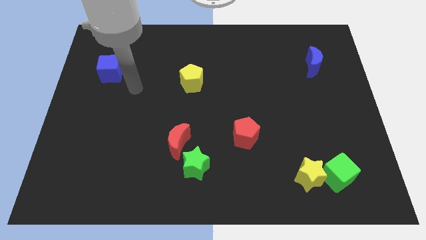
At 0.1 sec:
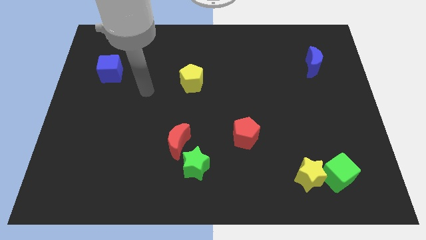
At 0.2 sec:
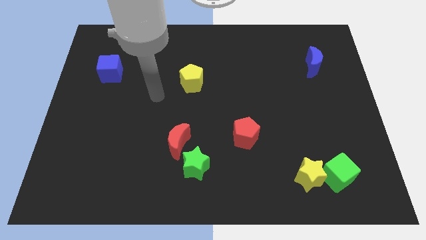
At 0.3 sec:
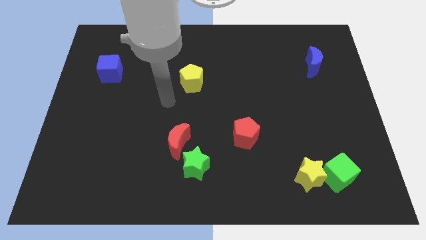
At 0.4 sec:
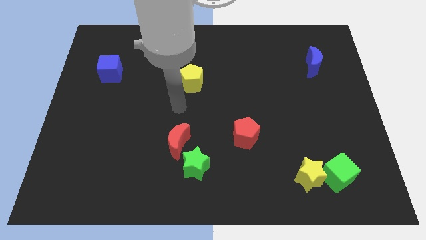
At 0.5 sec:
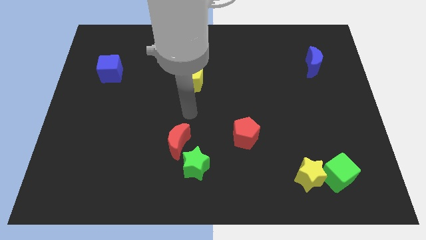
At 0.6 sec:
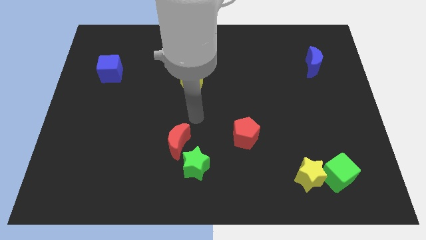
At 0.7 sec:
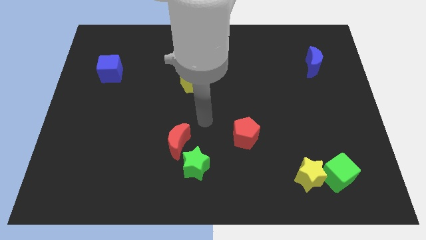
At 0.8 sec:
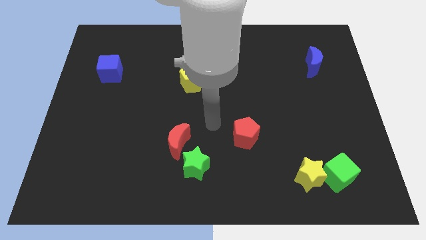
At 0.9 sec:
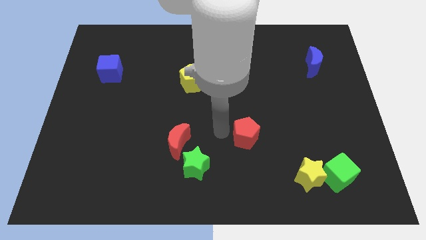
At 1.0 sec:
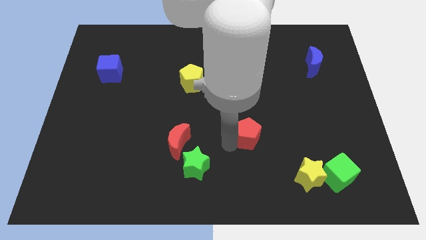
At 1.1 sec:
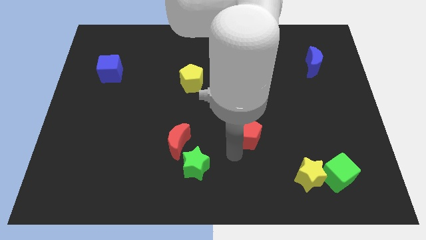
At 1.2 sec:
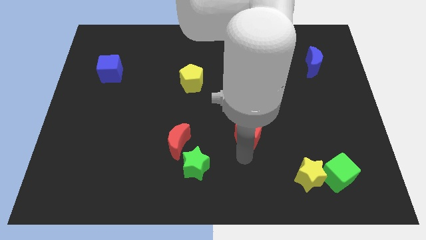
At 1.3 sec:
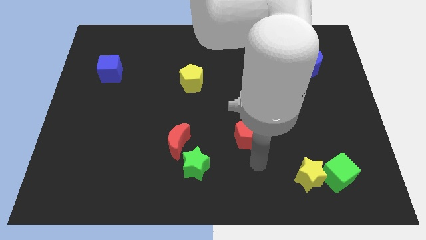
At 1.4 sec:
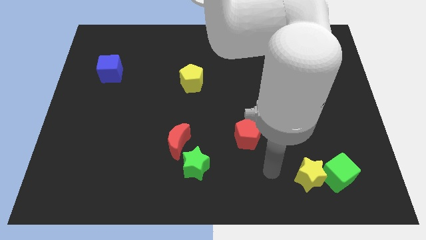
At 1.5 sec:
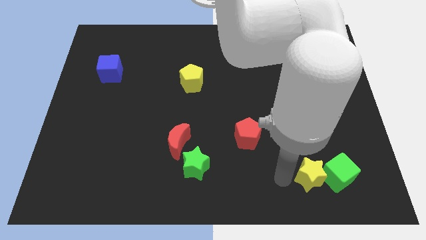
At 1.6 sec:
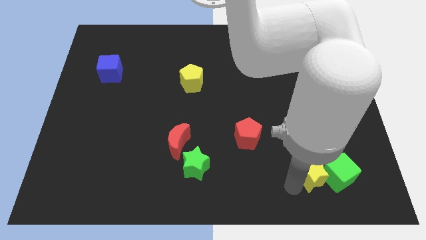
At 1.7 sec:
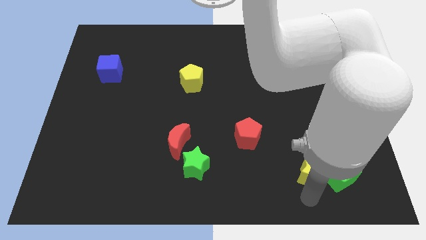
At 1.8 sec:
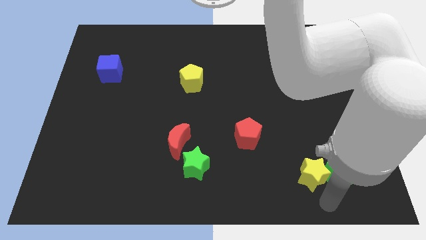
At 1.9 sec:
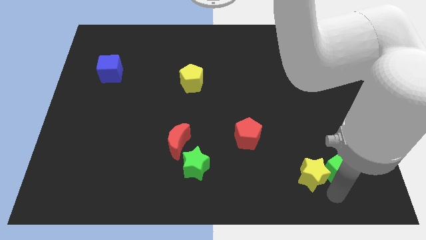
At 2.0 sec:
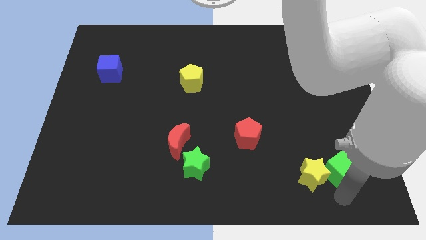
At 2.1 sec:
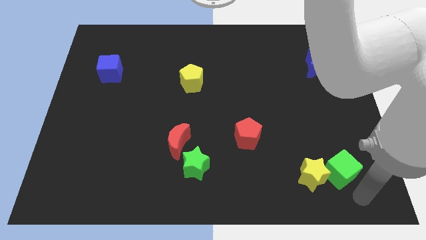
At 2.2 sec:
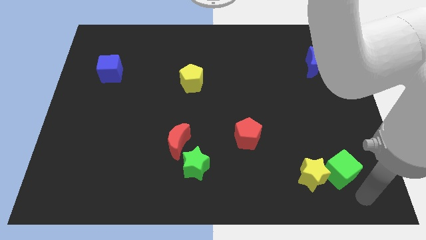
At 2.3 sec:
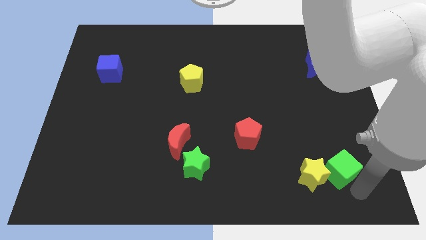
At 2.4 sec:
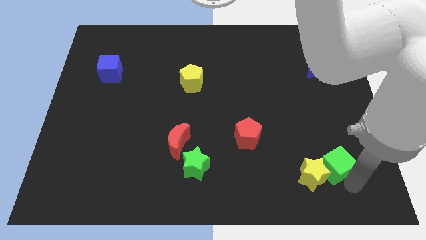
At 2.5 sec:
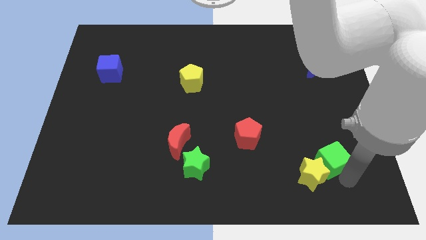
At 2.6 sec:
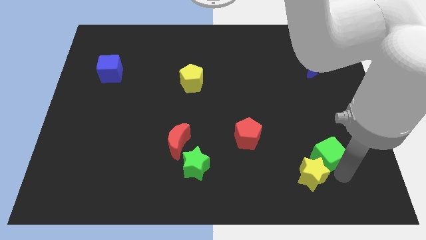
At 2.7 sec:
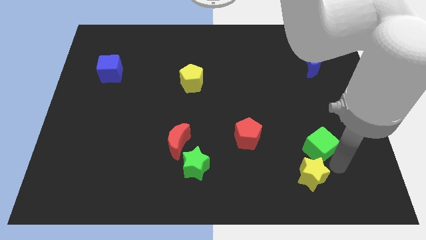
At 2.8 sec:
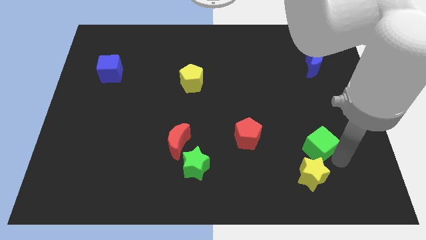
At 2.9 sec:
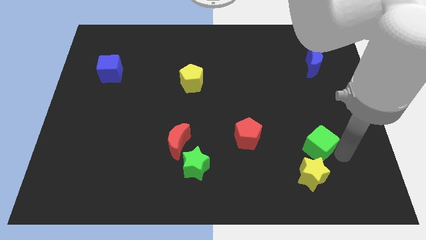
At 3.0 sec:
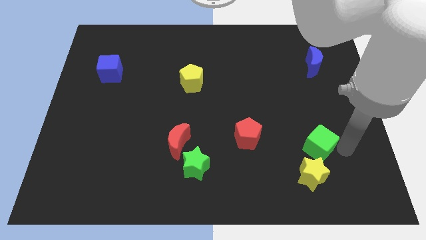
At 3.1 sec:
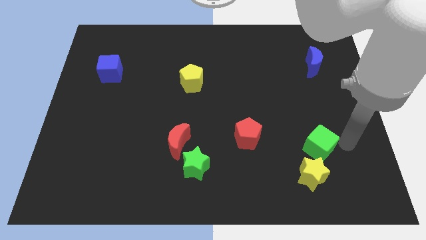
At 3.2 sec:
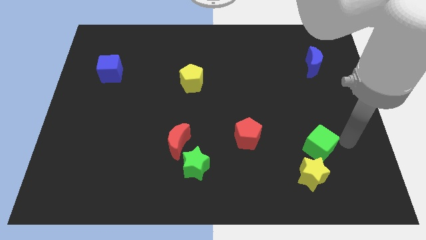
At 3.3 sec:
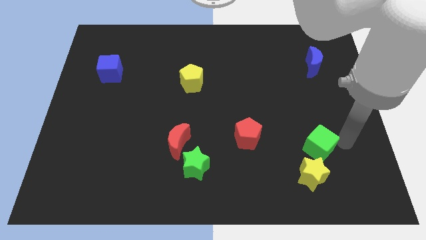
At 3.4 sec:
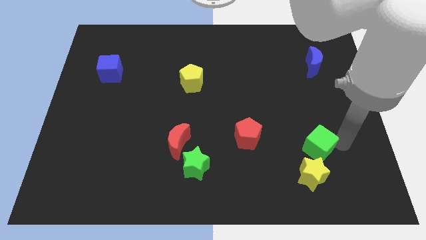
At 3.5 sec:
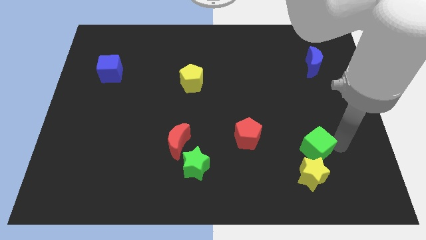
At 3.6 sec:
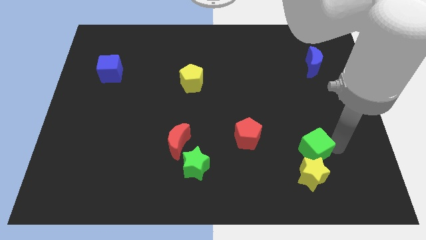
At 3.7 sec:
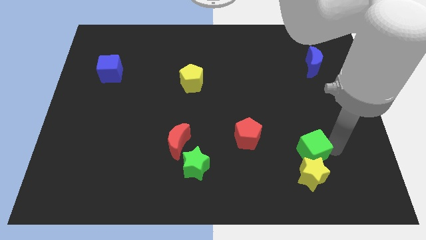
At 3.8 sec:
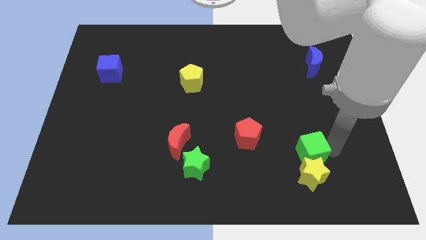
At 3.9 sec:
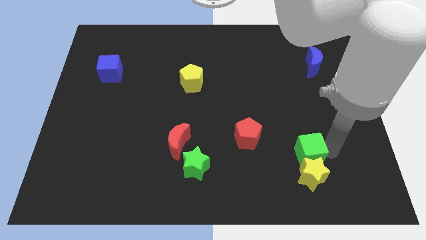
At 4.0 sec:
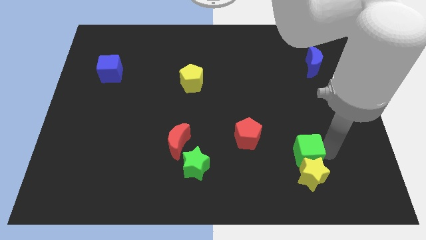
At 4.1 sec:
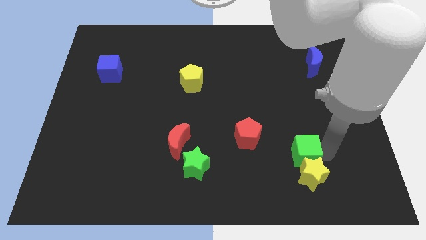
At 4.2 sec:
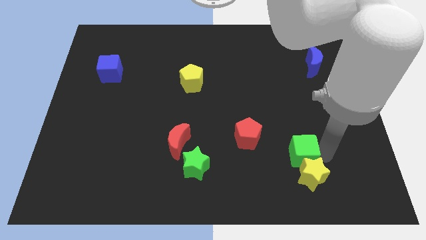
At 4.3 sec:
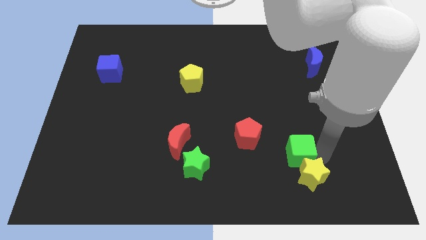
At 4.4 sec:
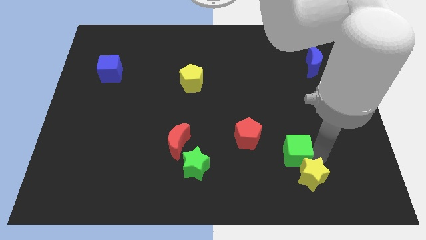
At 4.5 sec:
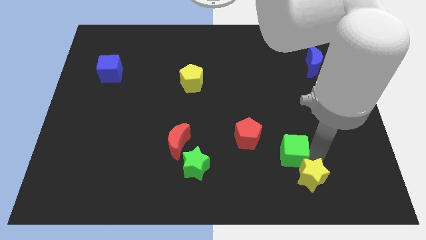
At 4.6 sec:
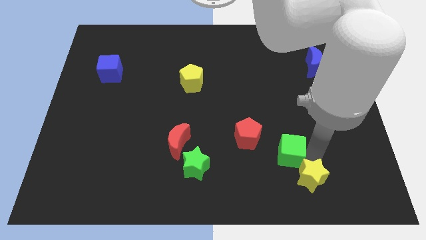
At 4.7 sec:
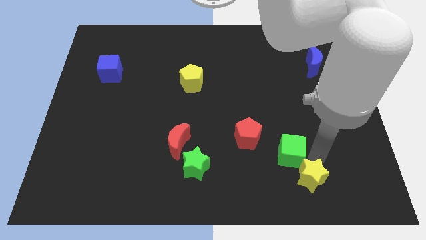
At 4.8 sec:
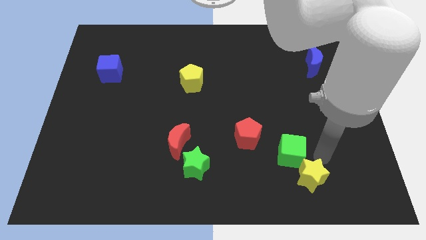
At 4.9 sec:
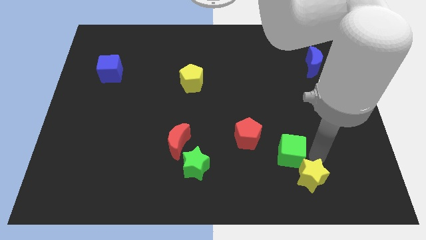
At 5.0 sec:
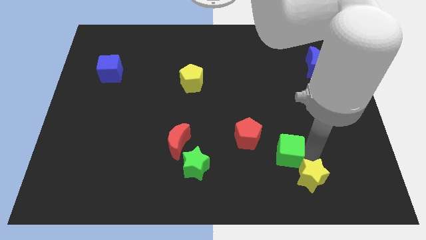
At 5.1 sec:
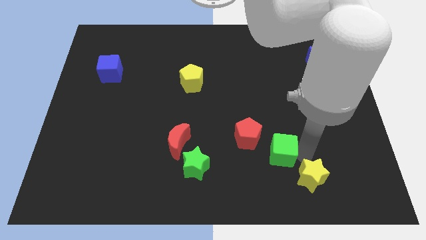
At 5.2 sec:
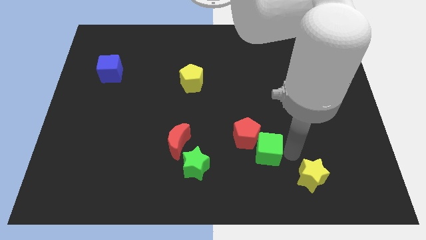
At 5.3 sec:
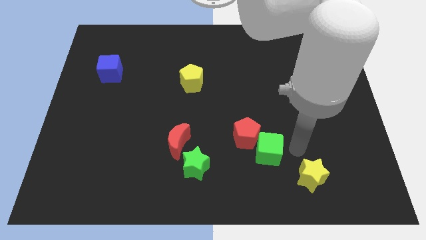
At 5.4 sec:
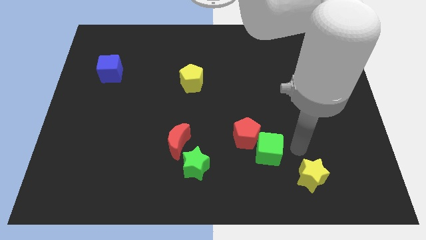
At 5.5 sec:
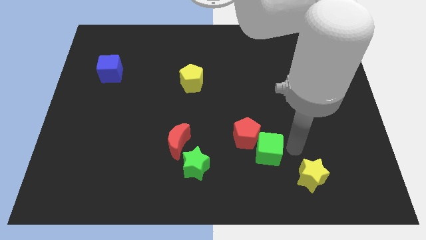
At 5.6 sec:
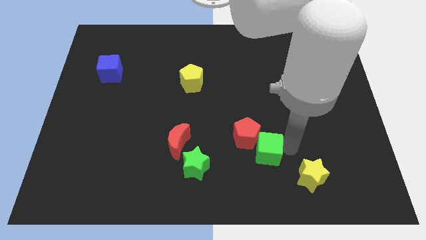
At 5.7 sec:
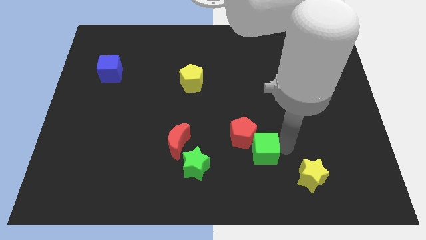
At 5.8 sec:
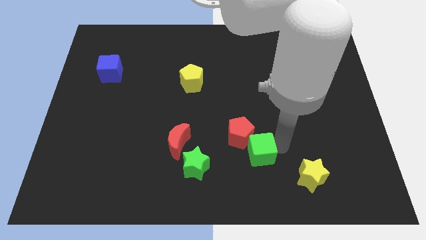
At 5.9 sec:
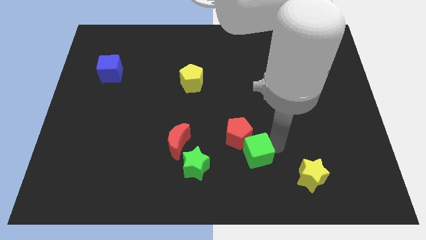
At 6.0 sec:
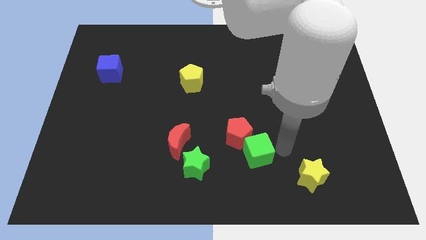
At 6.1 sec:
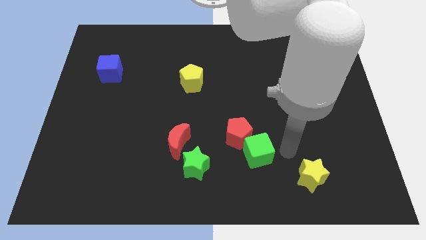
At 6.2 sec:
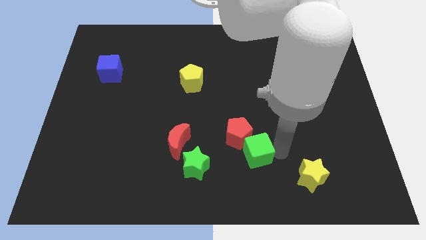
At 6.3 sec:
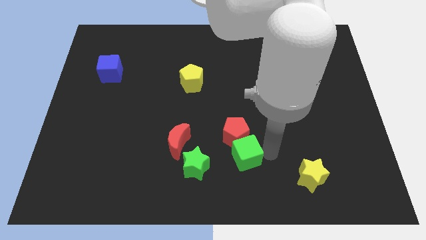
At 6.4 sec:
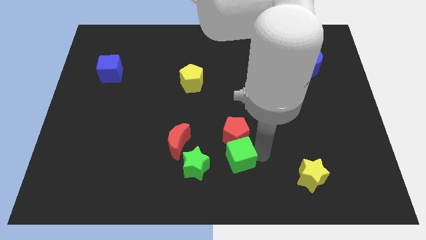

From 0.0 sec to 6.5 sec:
move the green cube diagonally down and to the left of the red pentagon
